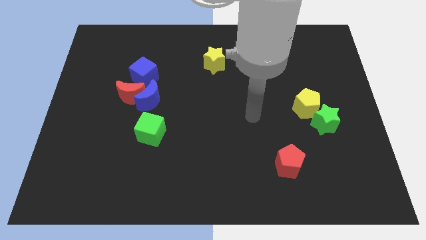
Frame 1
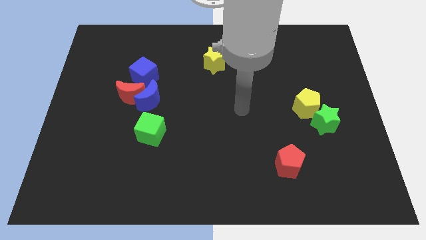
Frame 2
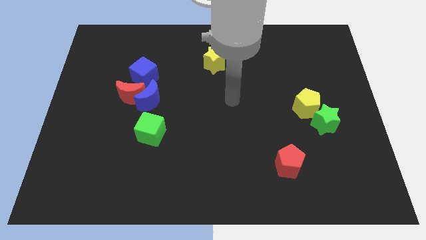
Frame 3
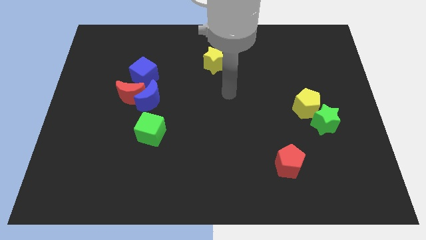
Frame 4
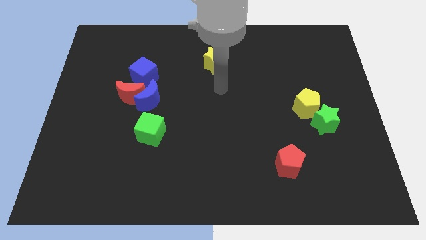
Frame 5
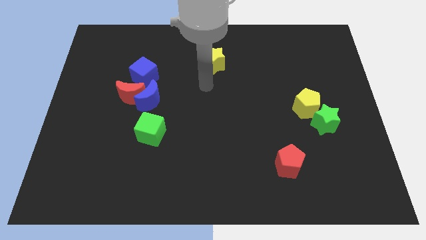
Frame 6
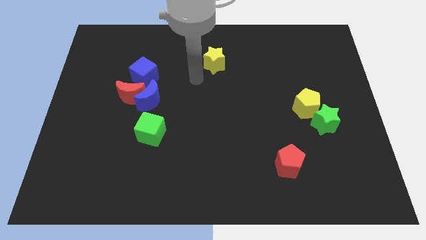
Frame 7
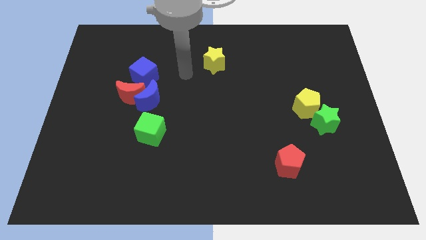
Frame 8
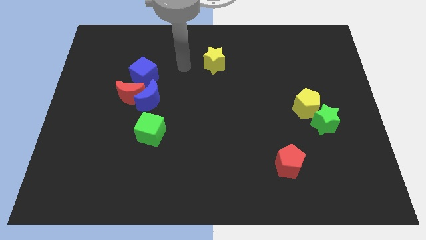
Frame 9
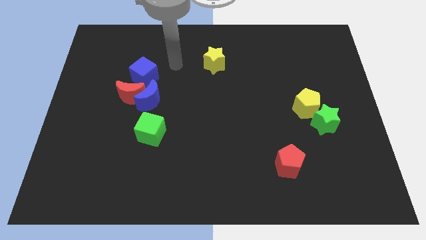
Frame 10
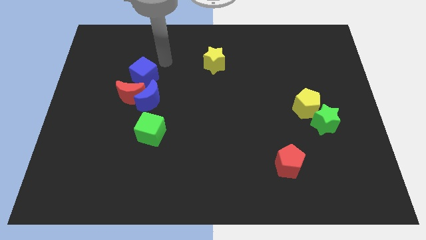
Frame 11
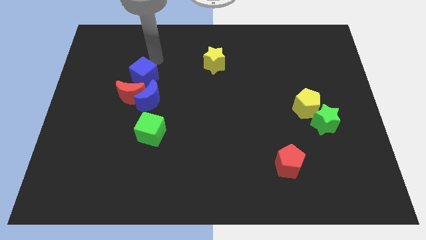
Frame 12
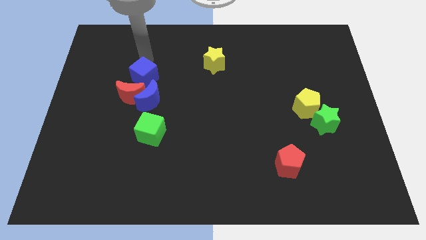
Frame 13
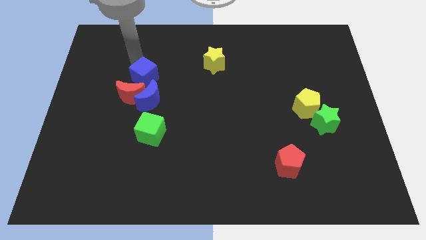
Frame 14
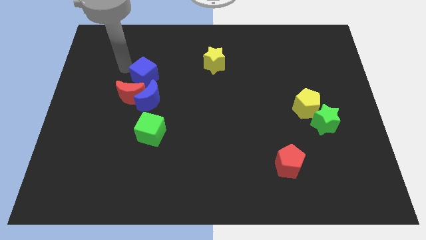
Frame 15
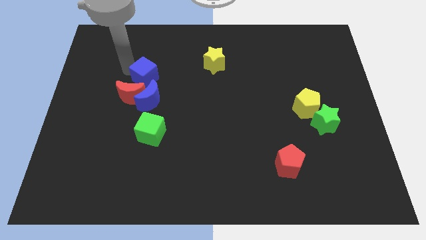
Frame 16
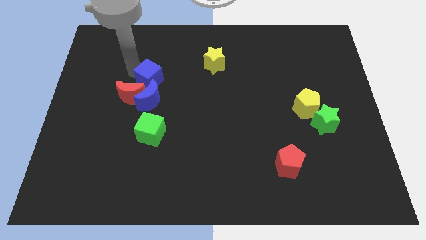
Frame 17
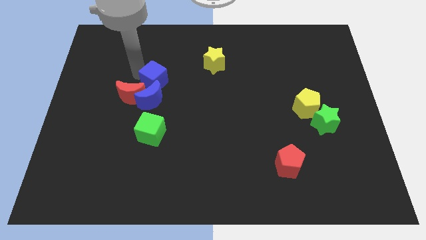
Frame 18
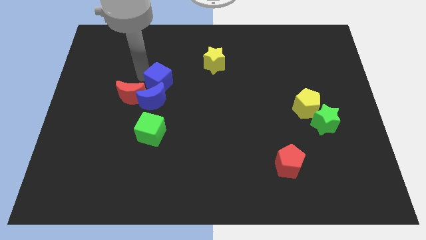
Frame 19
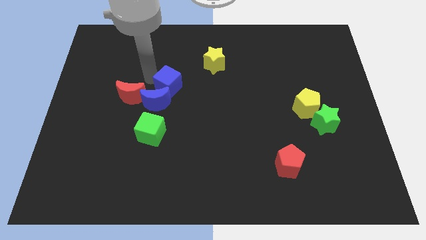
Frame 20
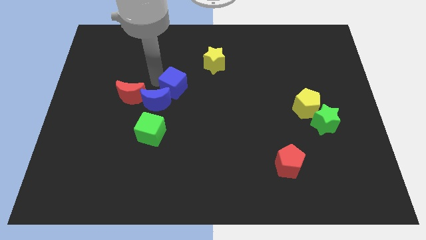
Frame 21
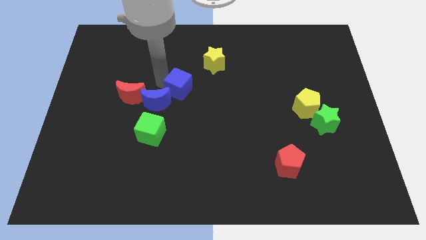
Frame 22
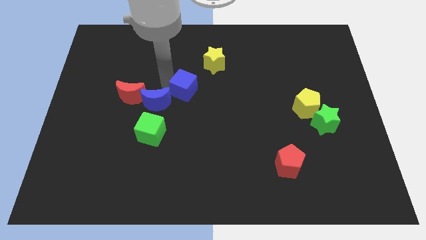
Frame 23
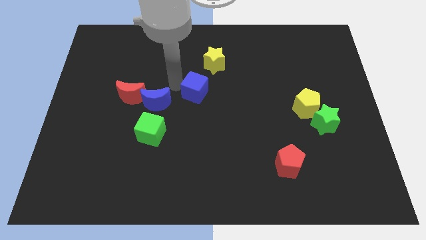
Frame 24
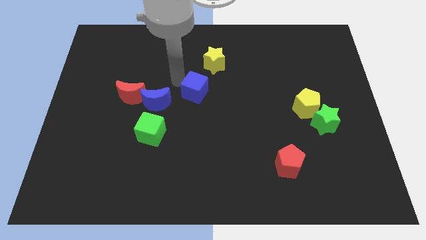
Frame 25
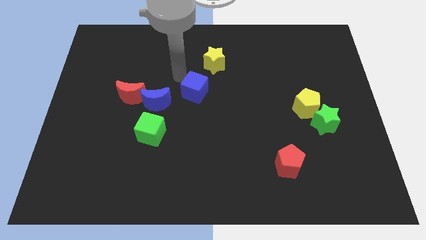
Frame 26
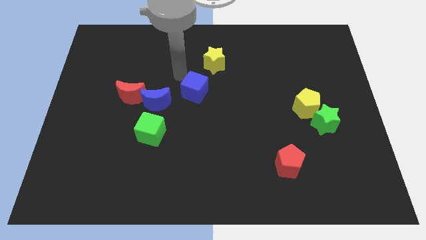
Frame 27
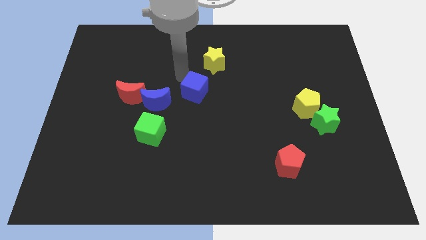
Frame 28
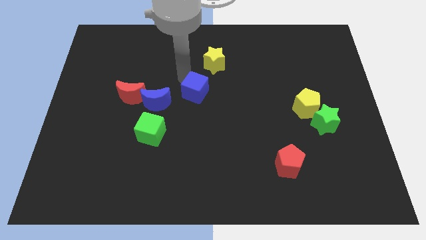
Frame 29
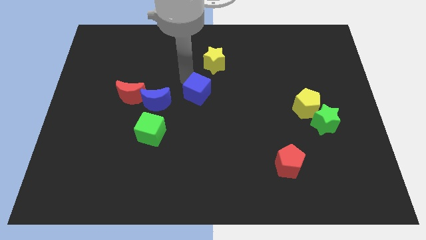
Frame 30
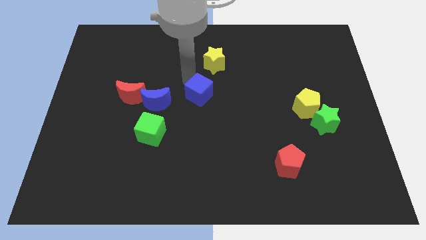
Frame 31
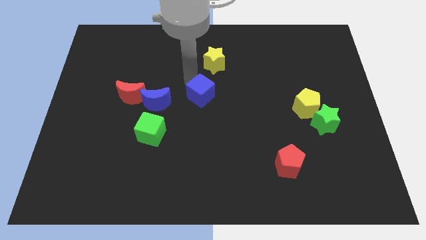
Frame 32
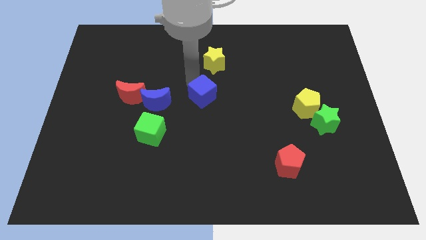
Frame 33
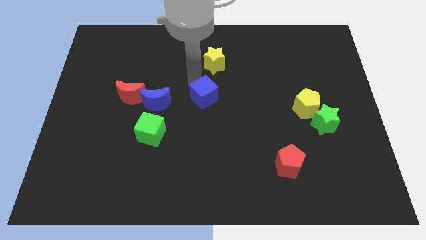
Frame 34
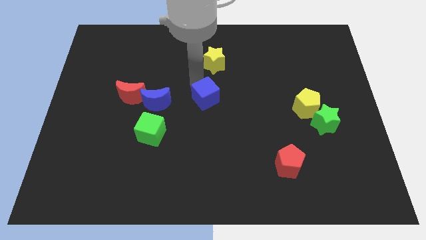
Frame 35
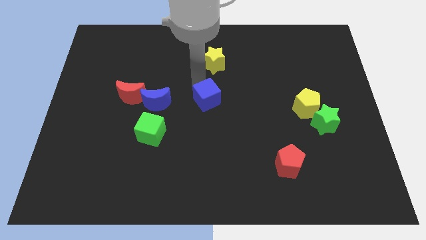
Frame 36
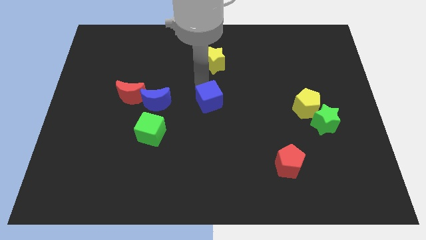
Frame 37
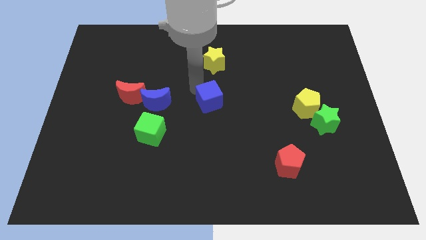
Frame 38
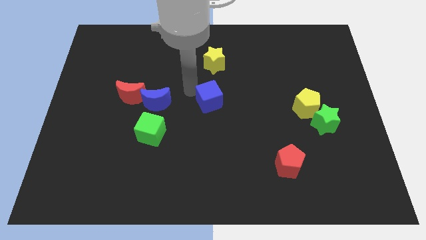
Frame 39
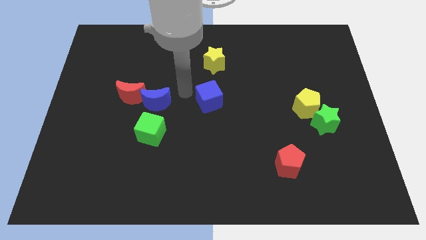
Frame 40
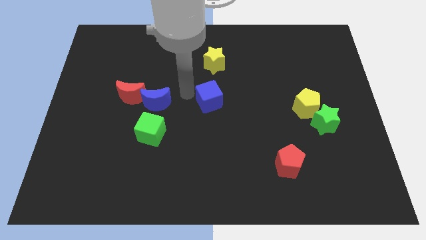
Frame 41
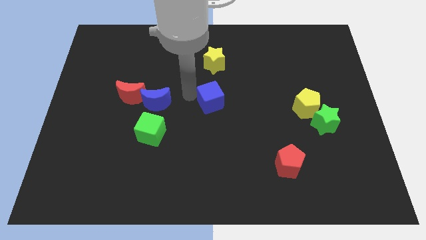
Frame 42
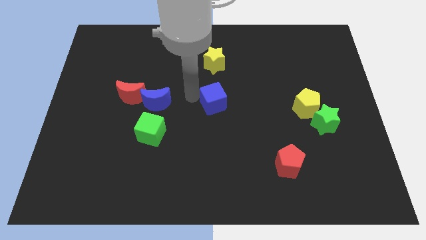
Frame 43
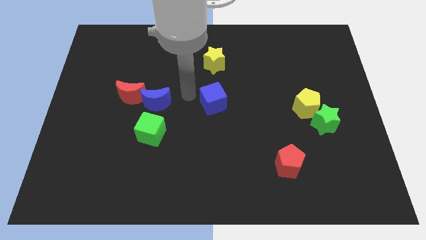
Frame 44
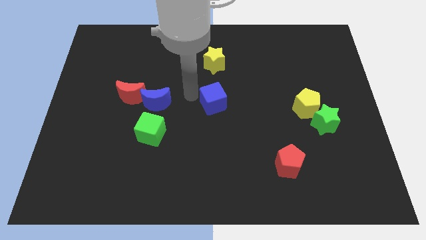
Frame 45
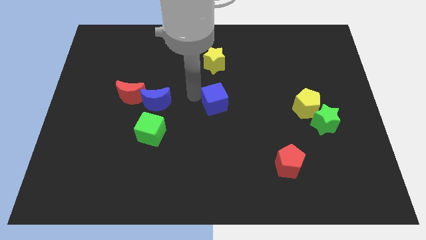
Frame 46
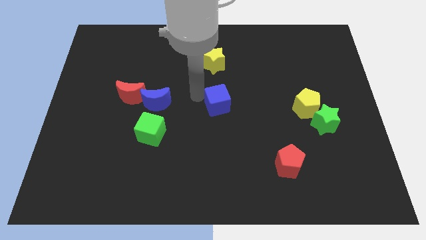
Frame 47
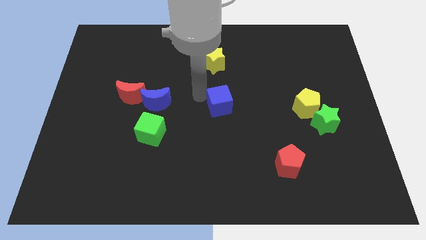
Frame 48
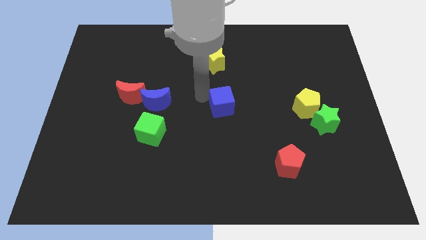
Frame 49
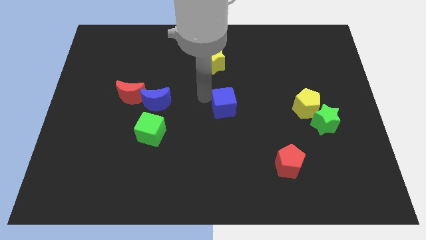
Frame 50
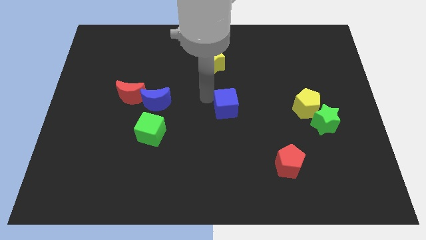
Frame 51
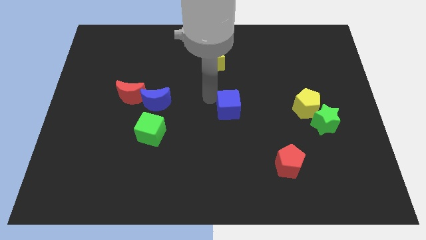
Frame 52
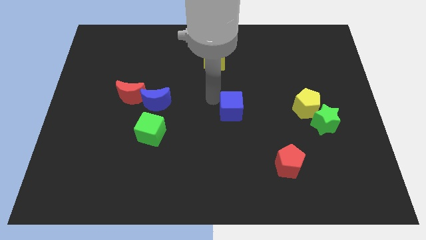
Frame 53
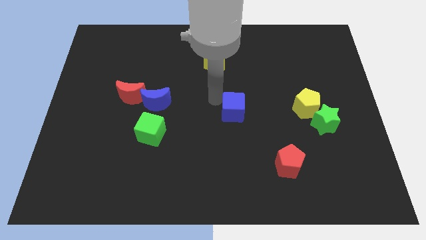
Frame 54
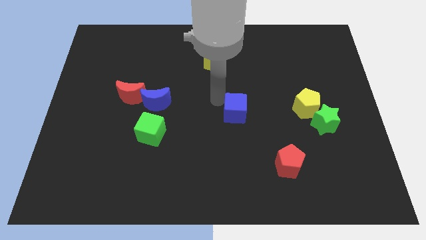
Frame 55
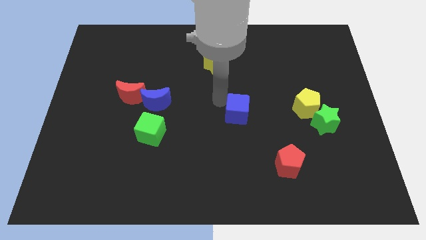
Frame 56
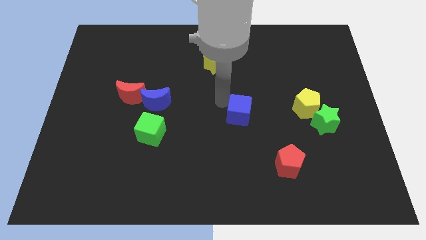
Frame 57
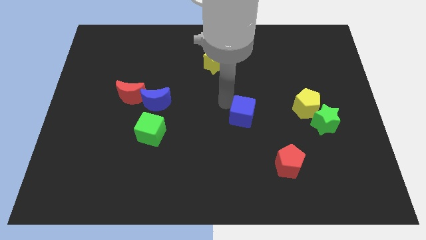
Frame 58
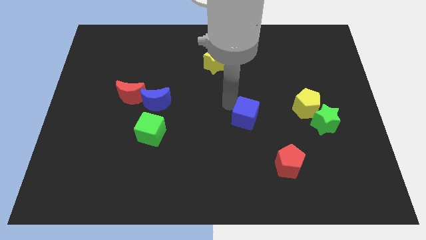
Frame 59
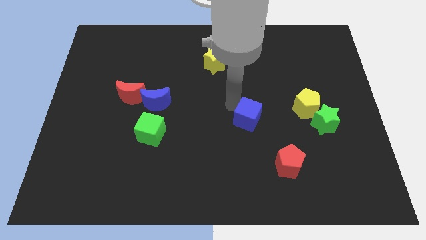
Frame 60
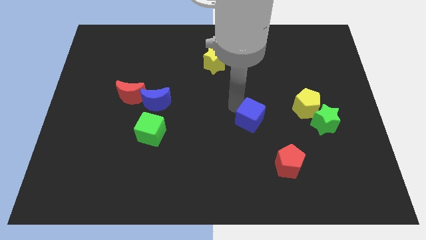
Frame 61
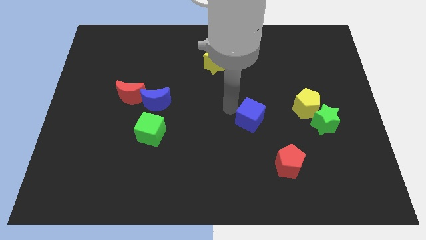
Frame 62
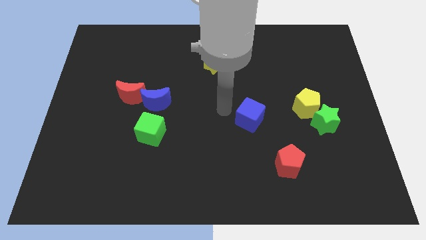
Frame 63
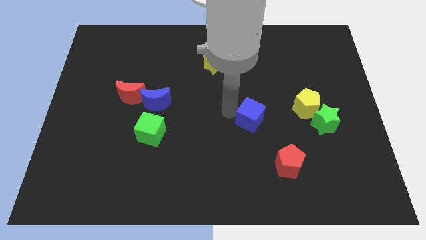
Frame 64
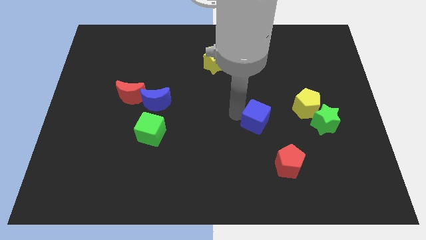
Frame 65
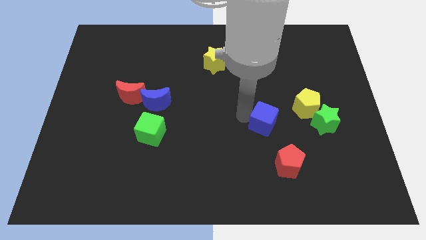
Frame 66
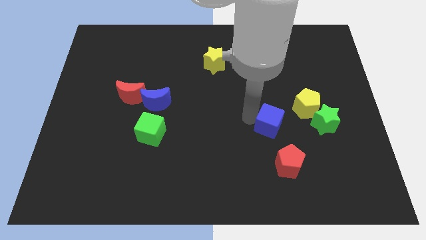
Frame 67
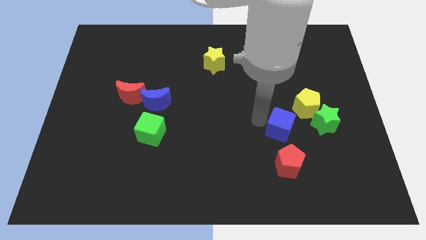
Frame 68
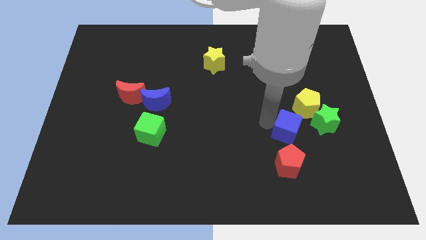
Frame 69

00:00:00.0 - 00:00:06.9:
move the blue cube diagonally down and to the left of the green star

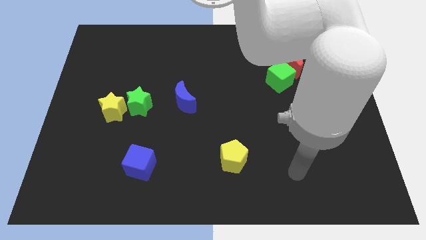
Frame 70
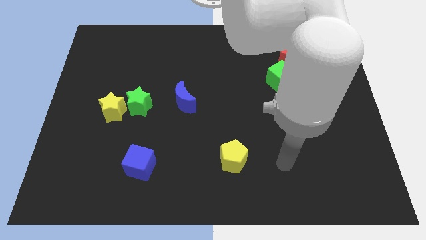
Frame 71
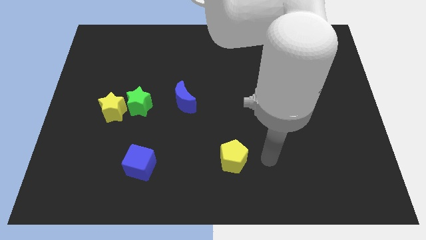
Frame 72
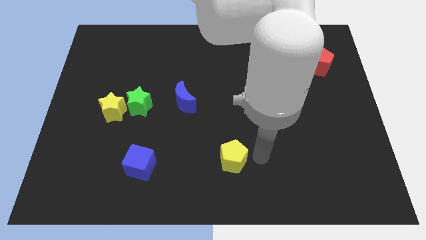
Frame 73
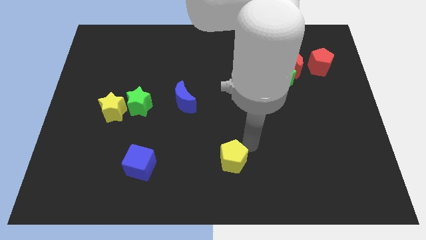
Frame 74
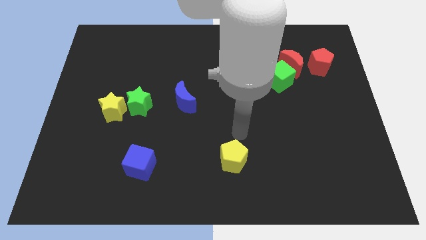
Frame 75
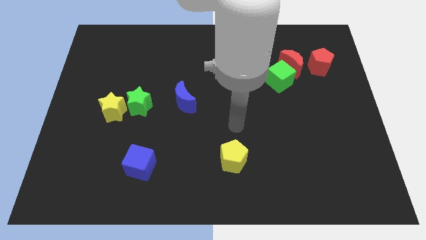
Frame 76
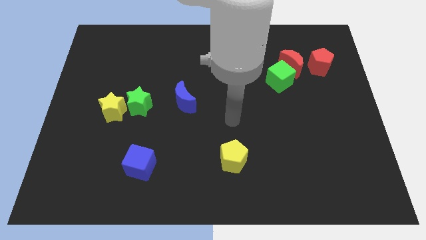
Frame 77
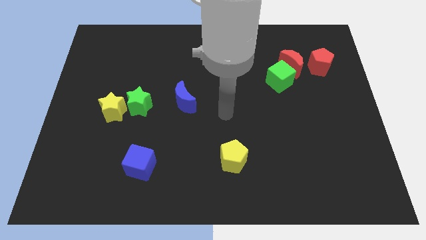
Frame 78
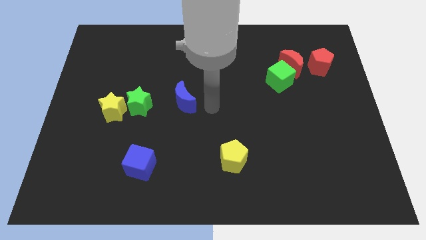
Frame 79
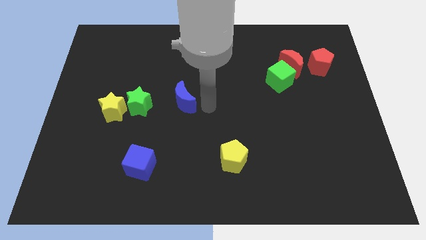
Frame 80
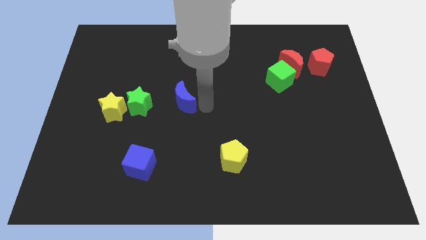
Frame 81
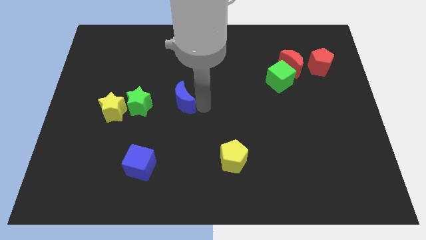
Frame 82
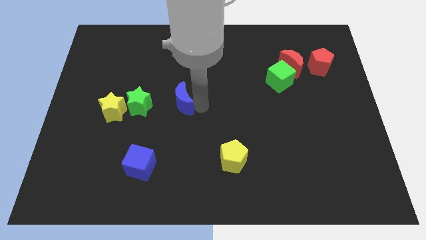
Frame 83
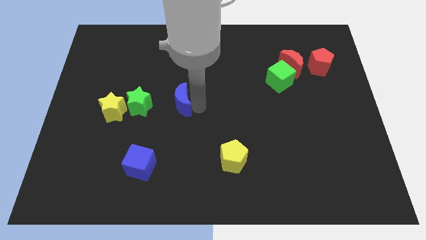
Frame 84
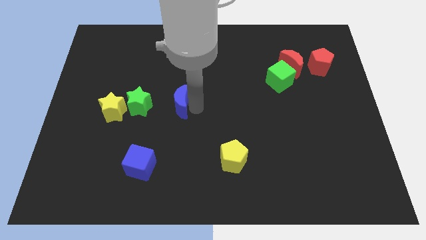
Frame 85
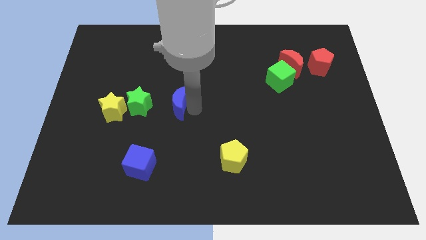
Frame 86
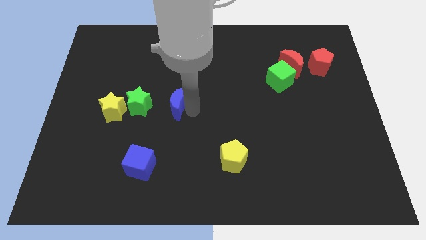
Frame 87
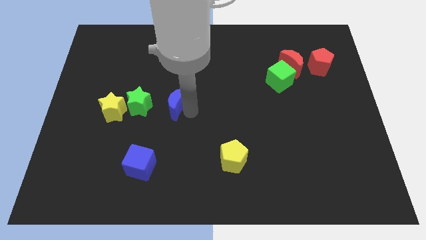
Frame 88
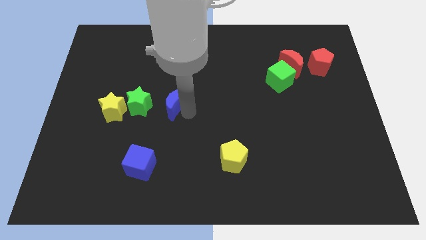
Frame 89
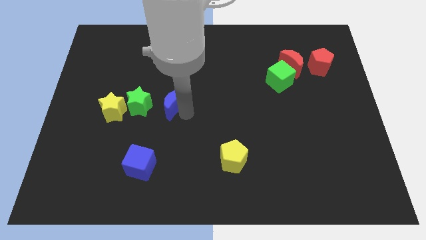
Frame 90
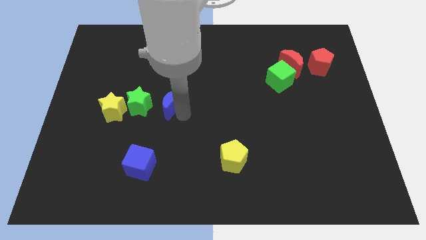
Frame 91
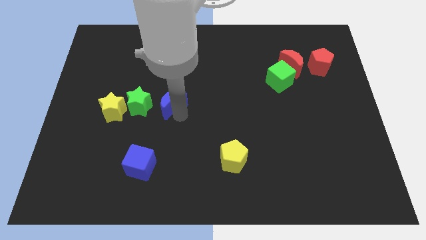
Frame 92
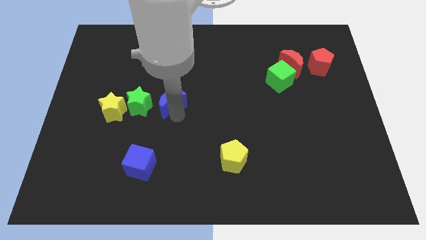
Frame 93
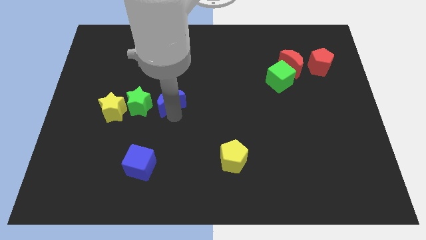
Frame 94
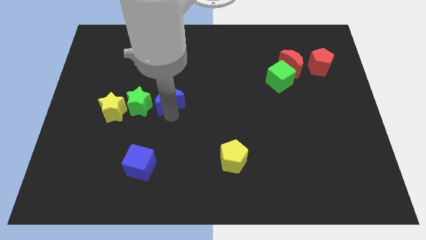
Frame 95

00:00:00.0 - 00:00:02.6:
slide the blue moon diagonally up and to the right of the green star
